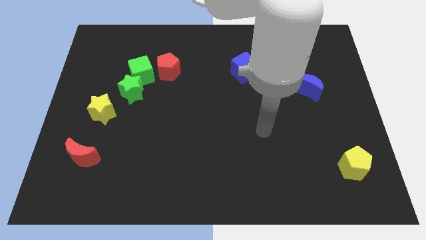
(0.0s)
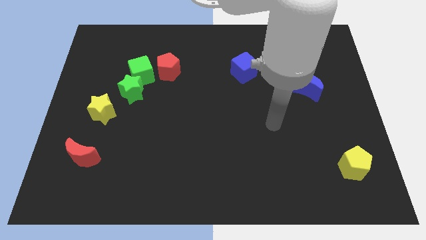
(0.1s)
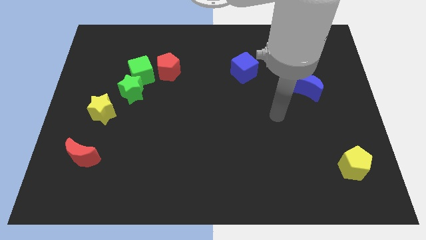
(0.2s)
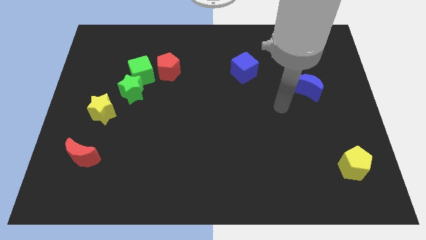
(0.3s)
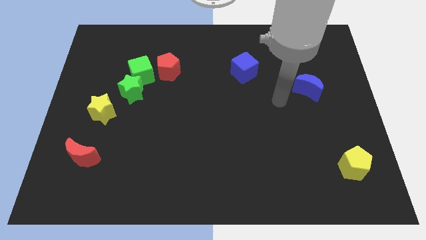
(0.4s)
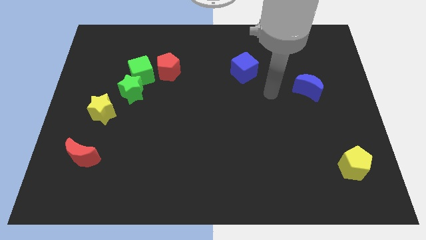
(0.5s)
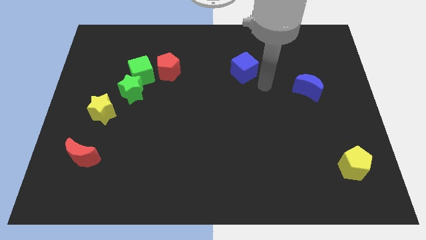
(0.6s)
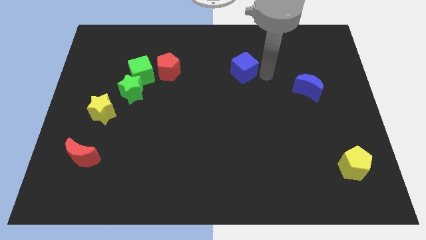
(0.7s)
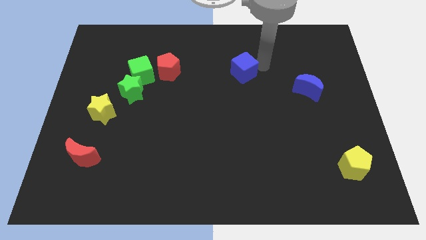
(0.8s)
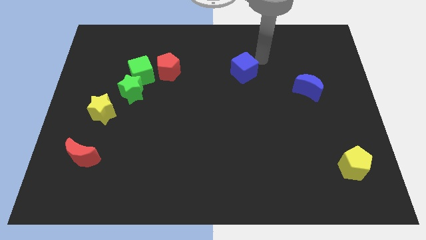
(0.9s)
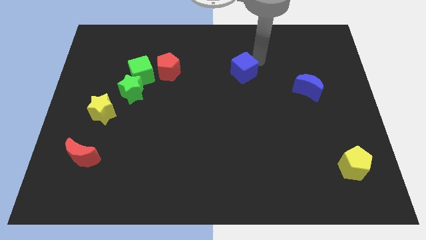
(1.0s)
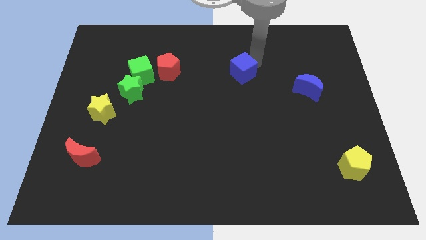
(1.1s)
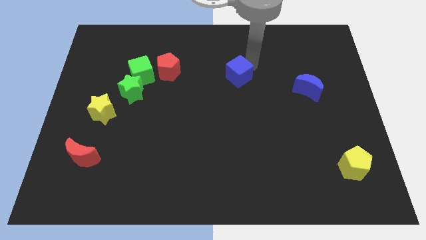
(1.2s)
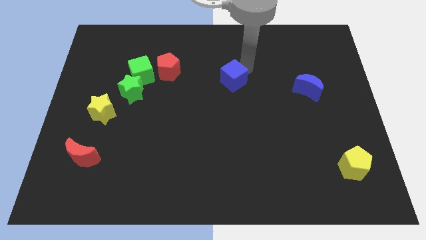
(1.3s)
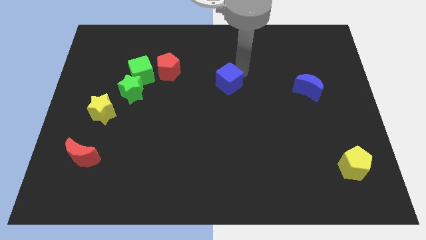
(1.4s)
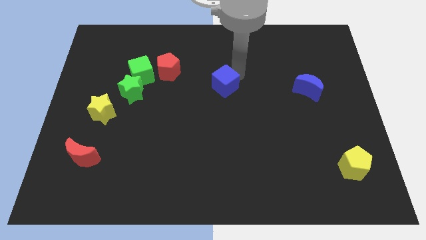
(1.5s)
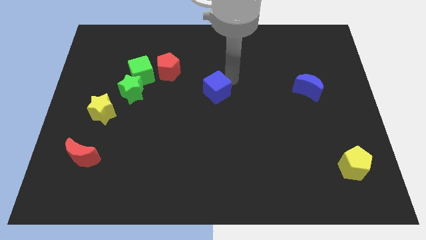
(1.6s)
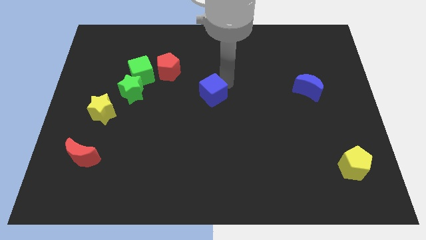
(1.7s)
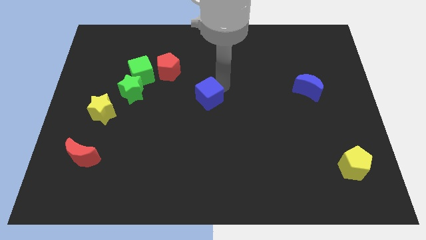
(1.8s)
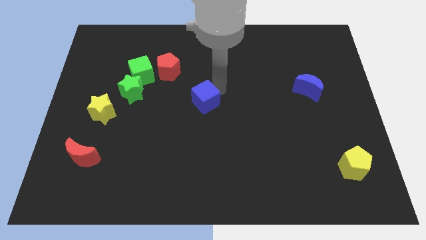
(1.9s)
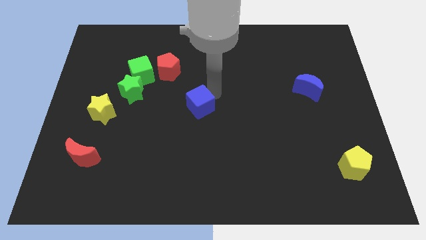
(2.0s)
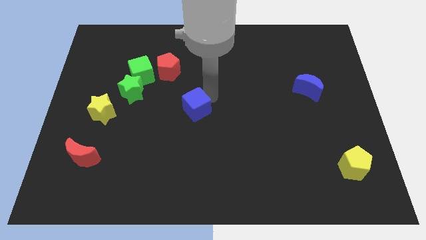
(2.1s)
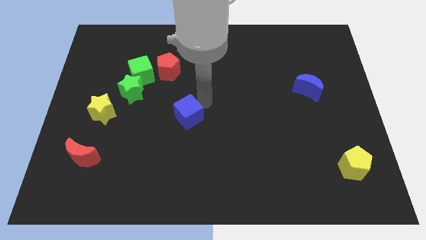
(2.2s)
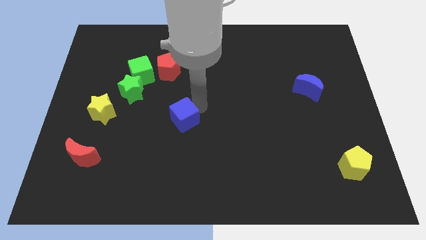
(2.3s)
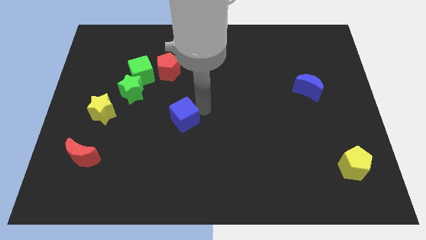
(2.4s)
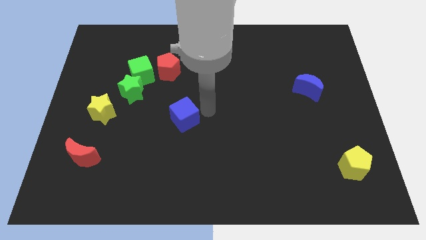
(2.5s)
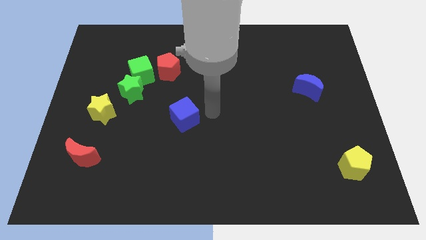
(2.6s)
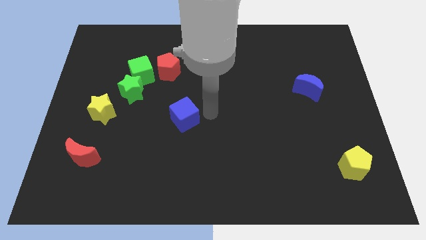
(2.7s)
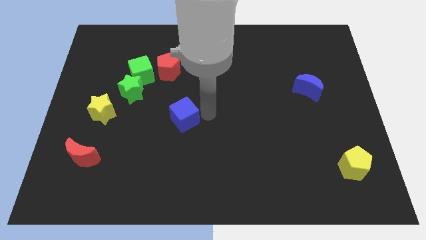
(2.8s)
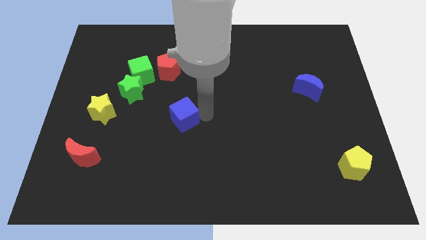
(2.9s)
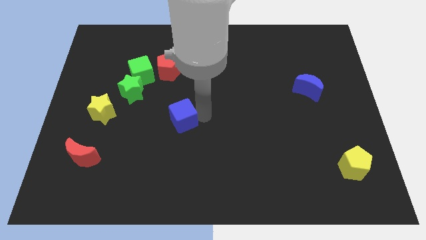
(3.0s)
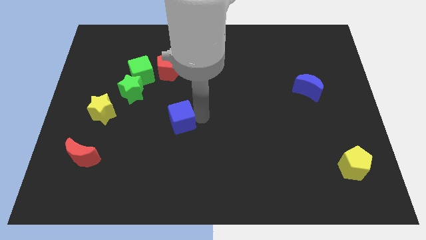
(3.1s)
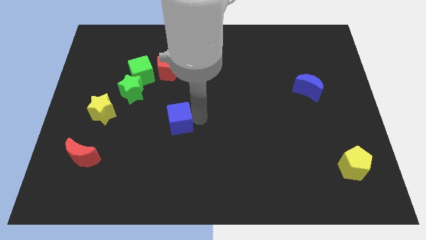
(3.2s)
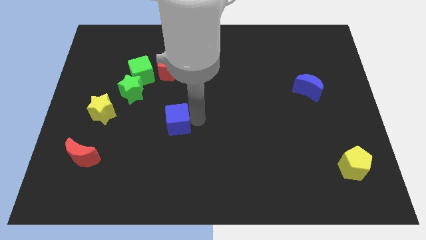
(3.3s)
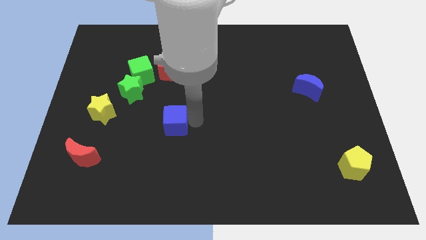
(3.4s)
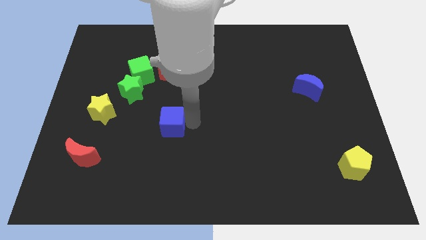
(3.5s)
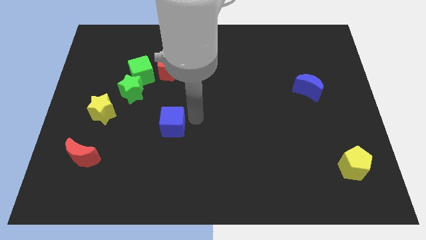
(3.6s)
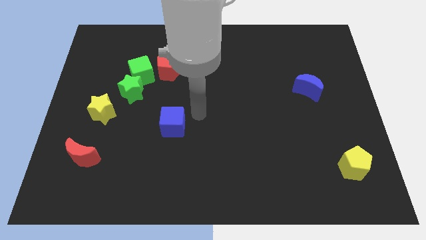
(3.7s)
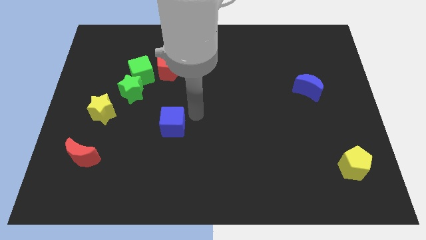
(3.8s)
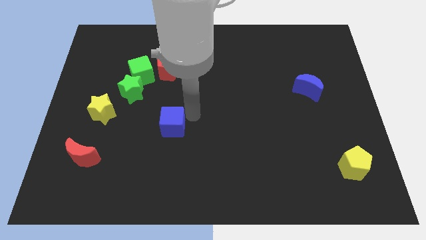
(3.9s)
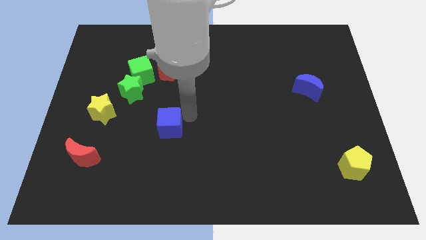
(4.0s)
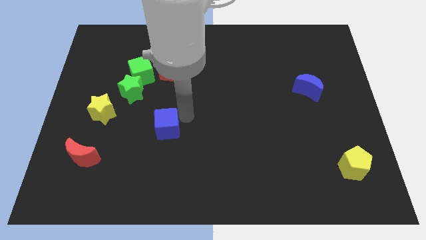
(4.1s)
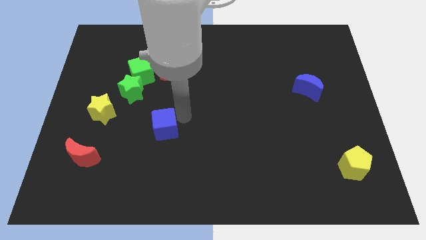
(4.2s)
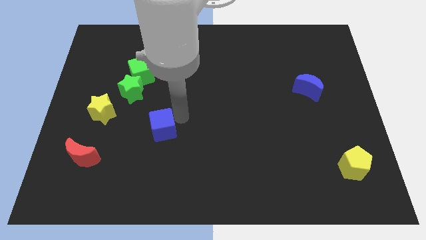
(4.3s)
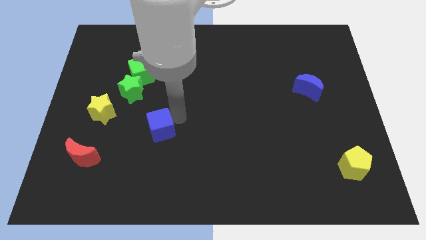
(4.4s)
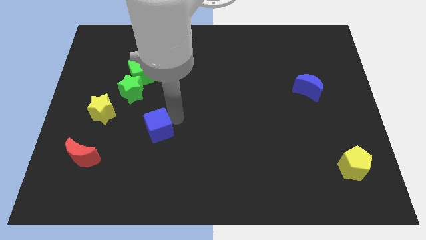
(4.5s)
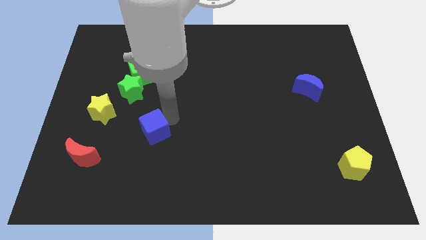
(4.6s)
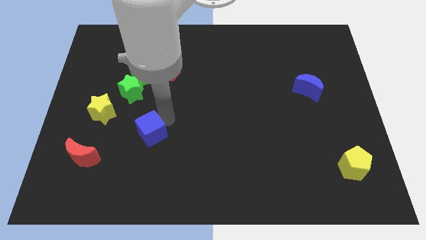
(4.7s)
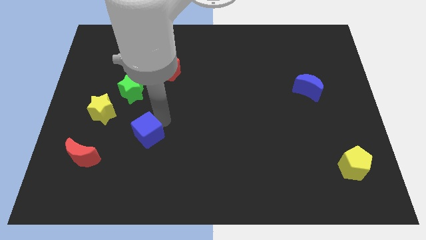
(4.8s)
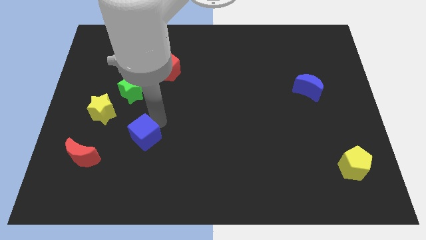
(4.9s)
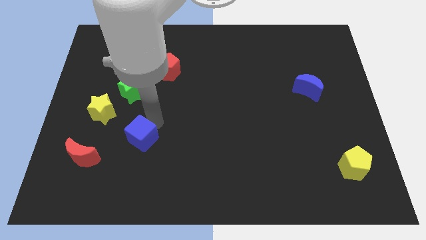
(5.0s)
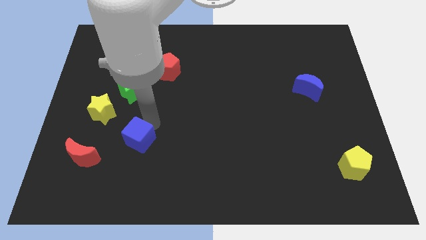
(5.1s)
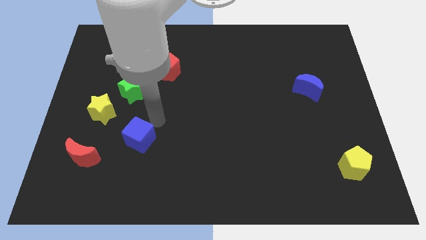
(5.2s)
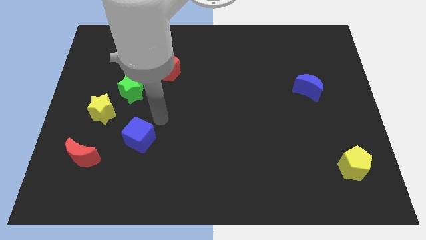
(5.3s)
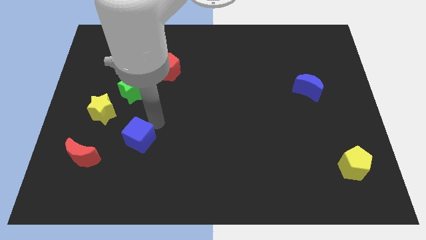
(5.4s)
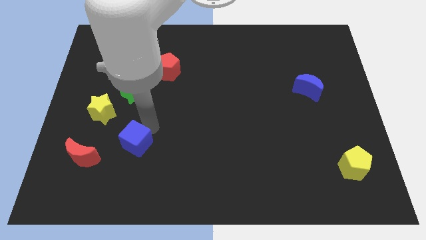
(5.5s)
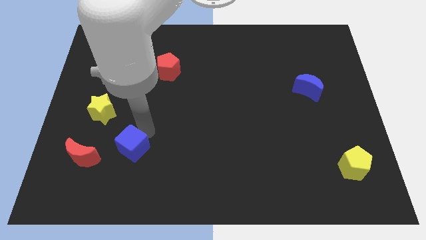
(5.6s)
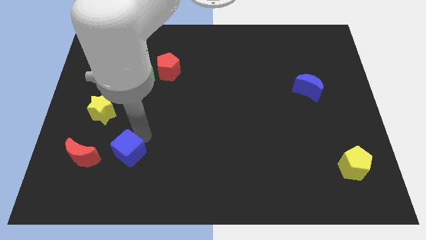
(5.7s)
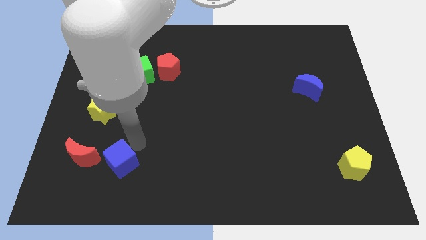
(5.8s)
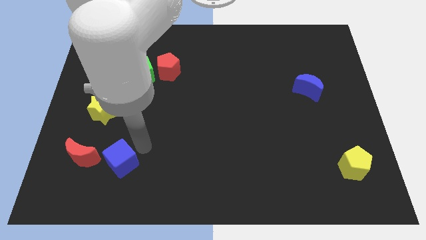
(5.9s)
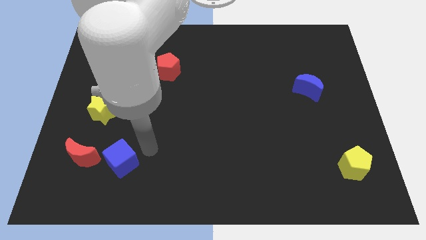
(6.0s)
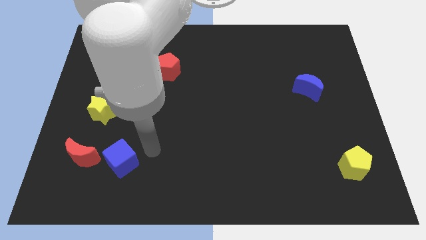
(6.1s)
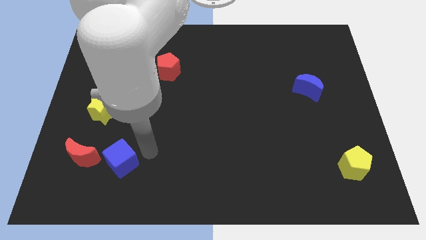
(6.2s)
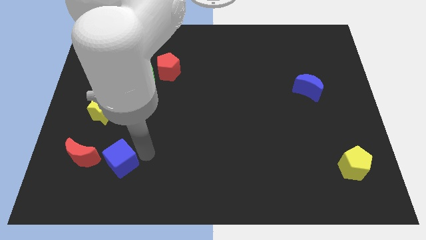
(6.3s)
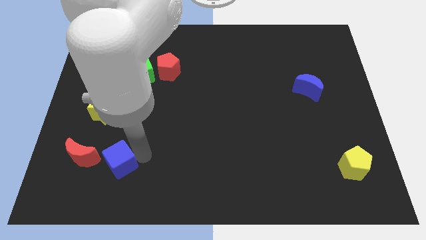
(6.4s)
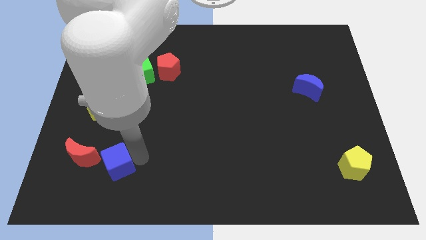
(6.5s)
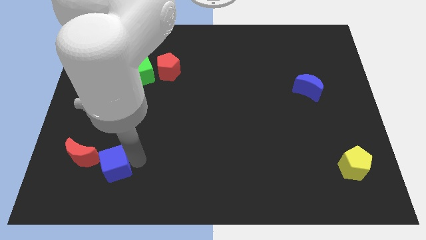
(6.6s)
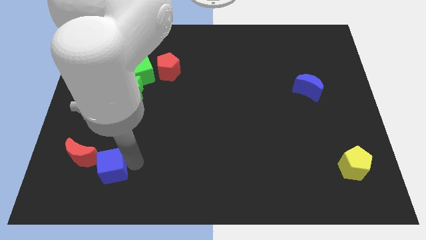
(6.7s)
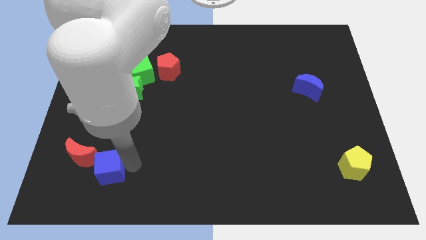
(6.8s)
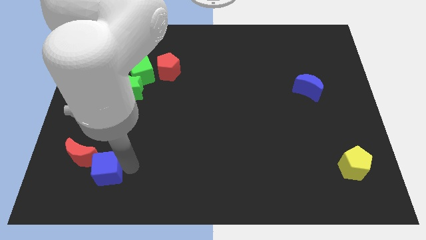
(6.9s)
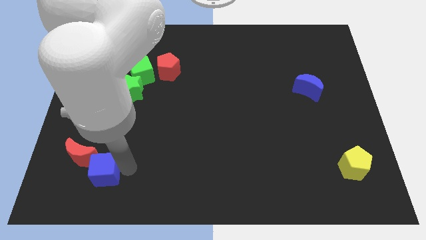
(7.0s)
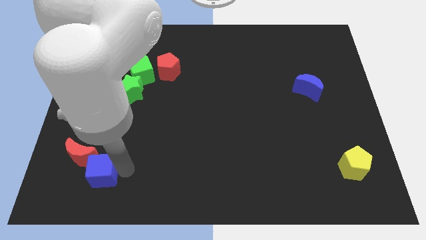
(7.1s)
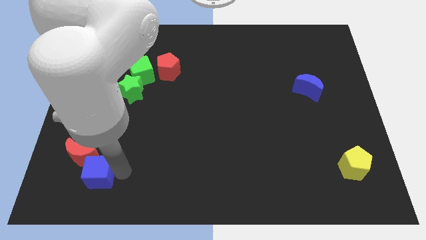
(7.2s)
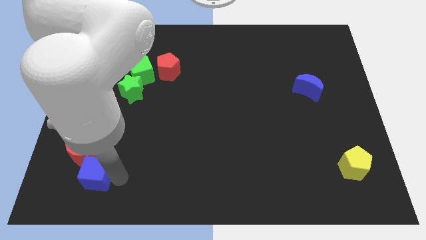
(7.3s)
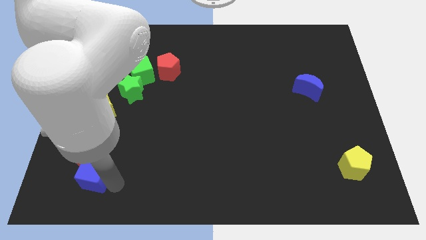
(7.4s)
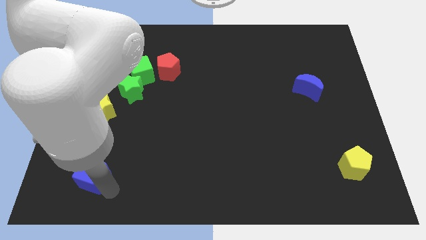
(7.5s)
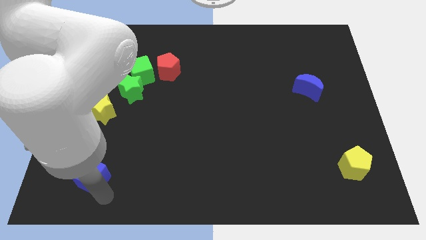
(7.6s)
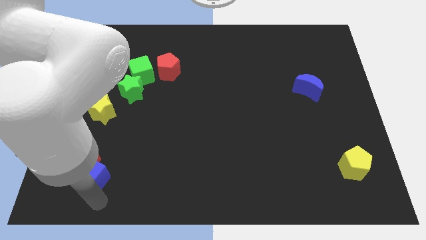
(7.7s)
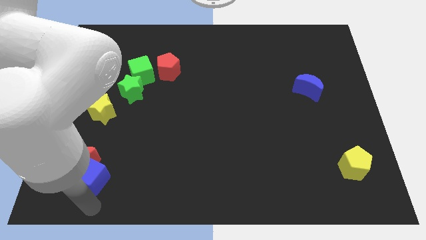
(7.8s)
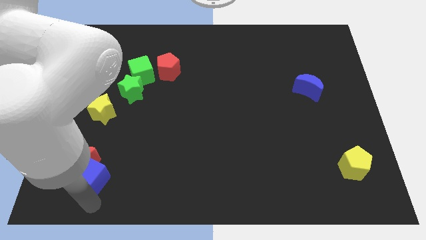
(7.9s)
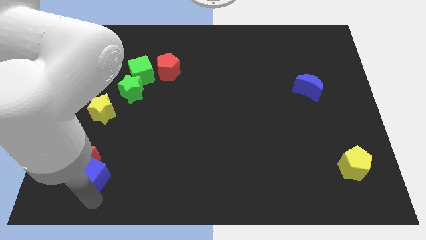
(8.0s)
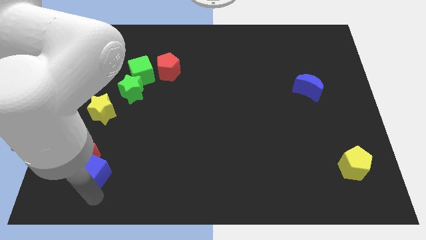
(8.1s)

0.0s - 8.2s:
move the blue cube to the bottom side of the yellow star
